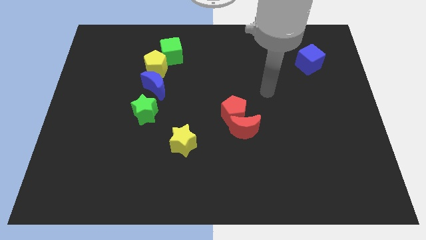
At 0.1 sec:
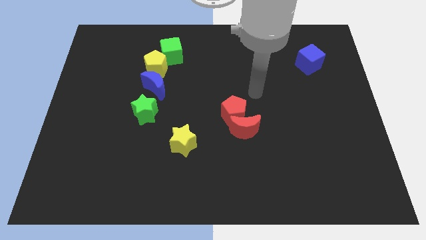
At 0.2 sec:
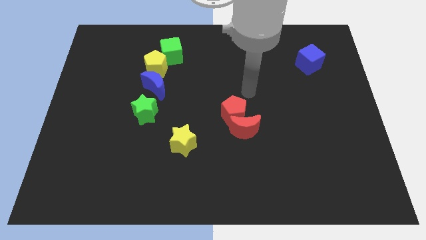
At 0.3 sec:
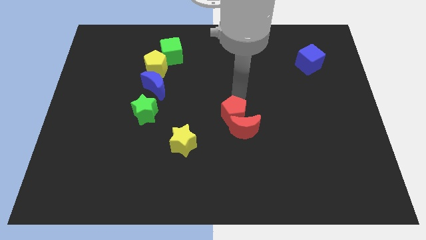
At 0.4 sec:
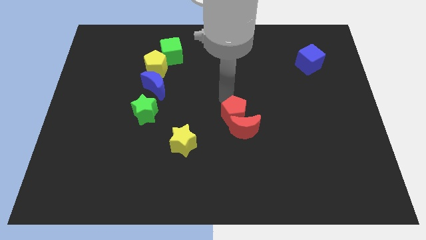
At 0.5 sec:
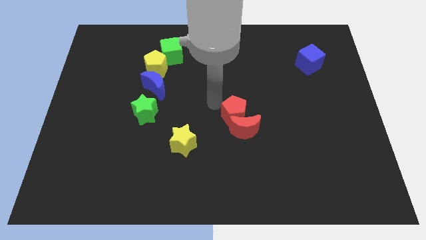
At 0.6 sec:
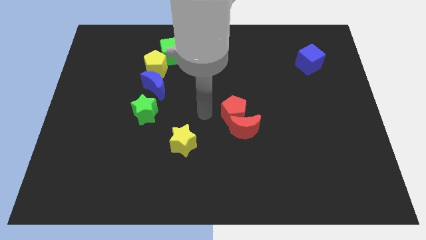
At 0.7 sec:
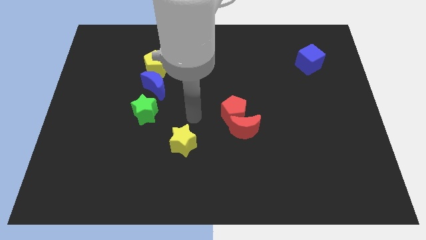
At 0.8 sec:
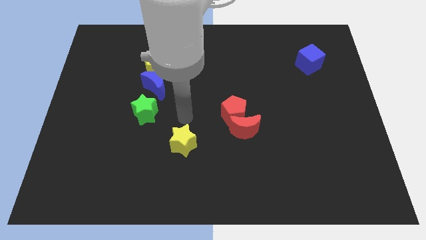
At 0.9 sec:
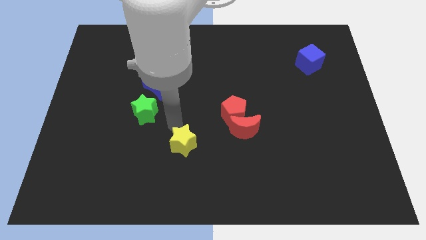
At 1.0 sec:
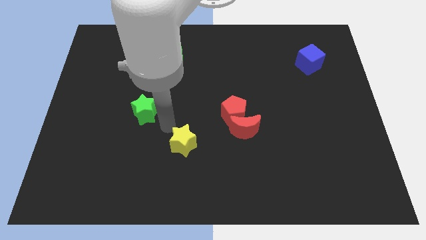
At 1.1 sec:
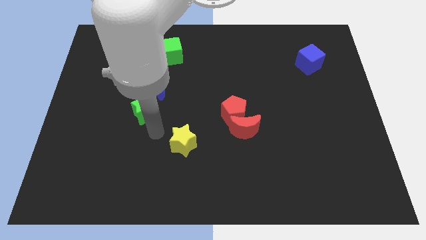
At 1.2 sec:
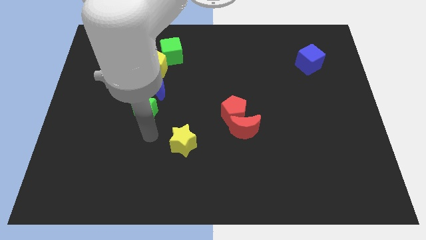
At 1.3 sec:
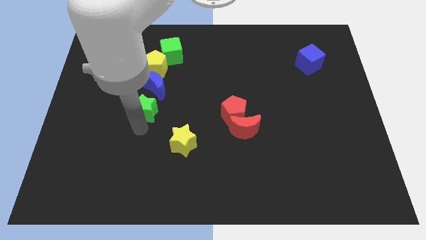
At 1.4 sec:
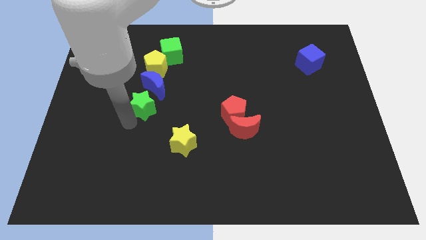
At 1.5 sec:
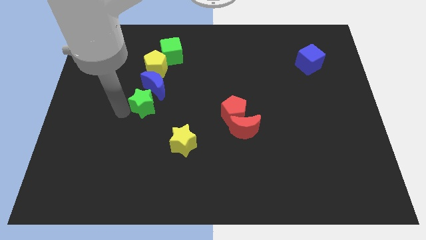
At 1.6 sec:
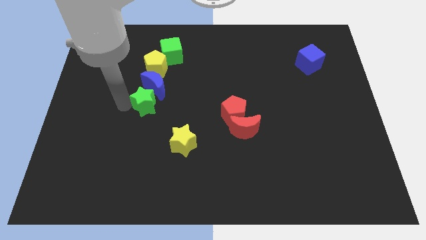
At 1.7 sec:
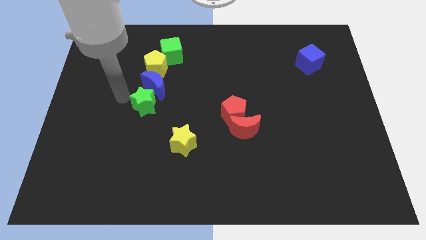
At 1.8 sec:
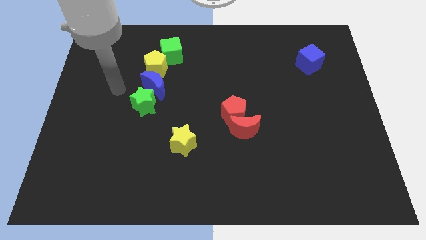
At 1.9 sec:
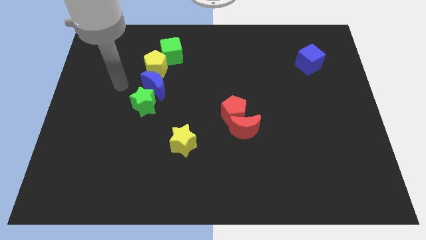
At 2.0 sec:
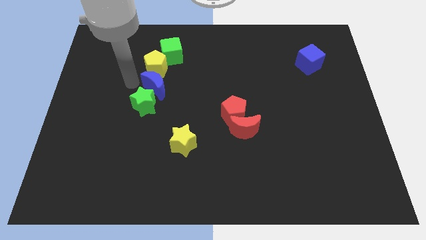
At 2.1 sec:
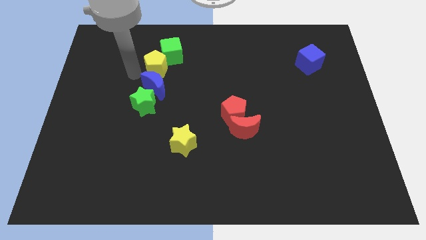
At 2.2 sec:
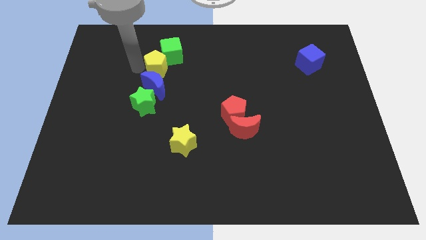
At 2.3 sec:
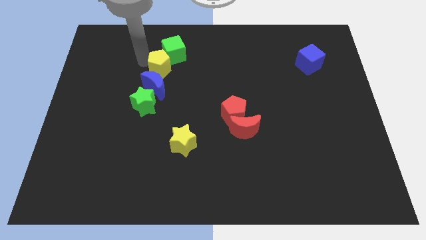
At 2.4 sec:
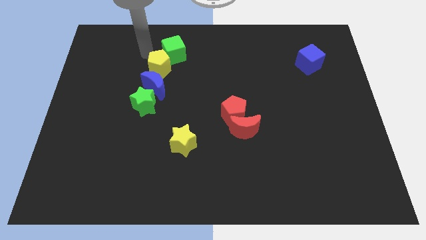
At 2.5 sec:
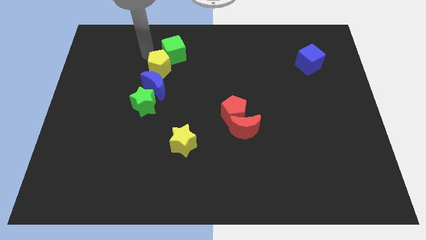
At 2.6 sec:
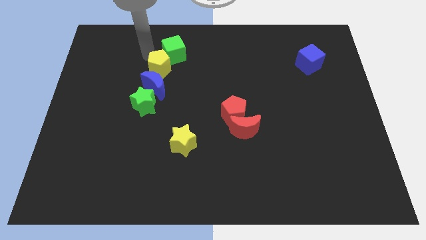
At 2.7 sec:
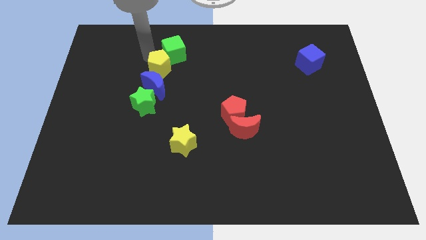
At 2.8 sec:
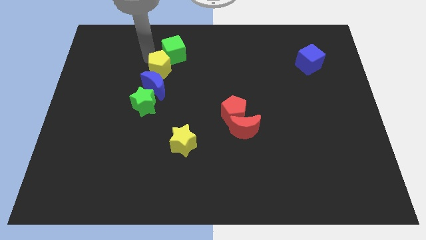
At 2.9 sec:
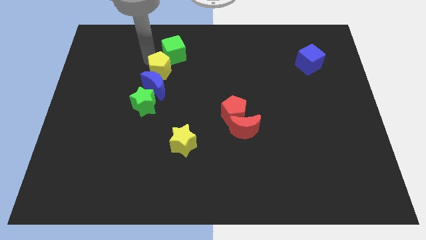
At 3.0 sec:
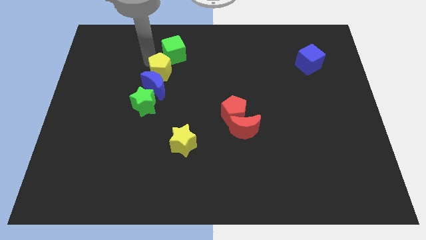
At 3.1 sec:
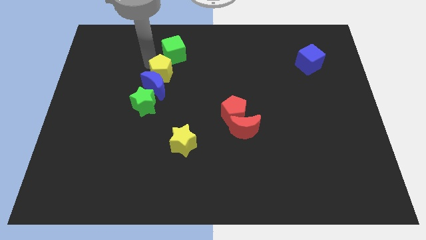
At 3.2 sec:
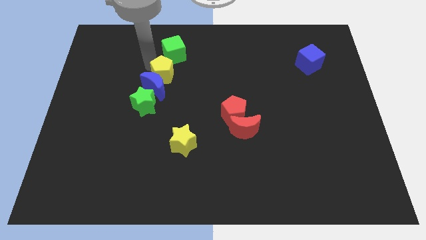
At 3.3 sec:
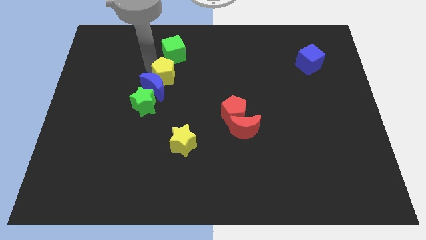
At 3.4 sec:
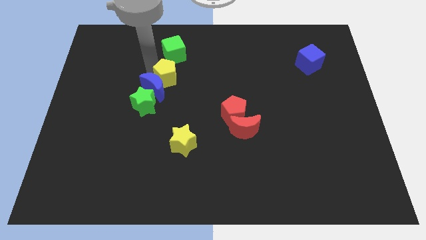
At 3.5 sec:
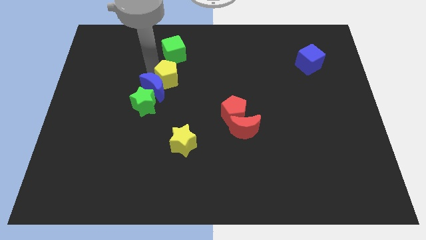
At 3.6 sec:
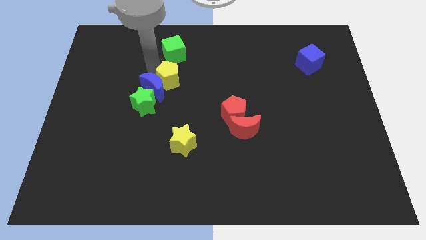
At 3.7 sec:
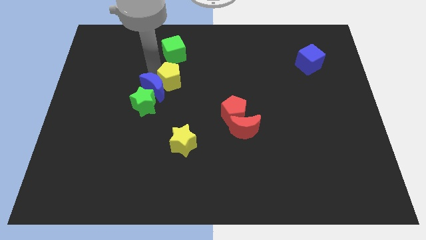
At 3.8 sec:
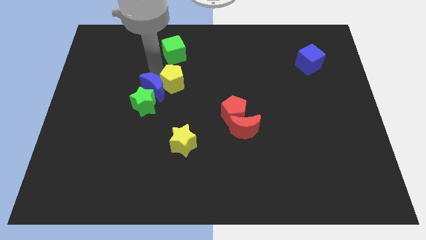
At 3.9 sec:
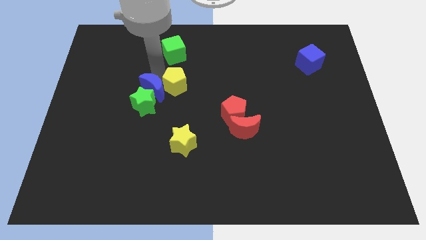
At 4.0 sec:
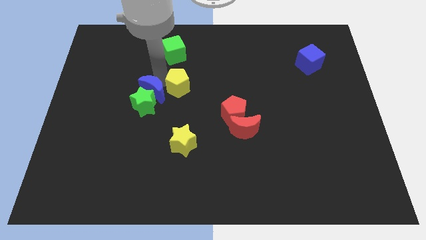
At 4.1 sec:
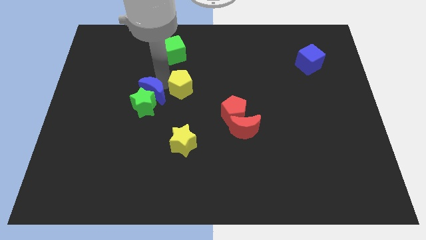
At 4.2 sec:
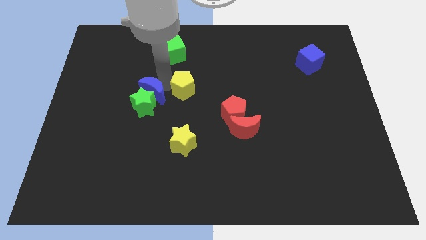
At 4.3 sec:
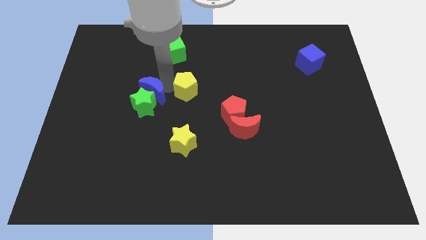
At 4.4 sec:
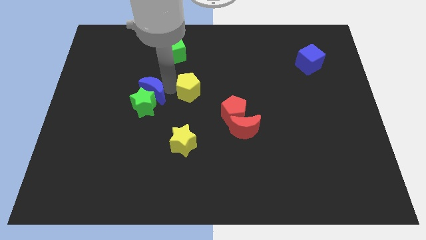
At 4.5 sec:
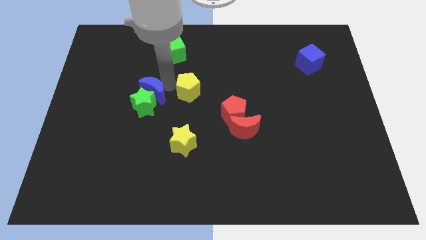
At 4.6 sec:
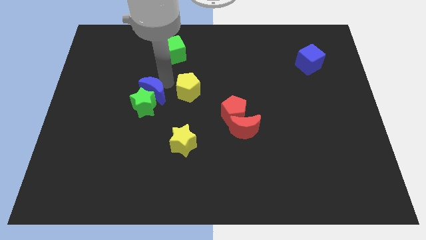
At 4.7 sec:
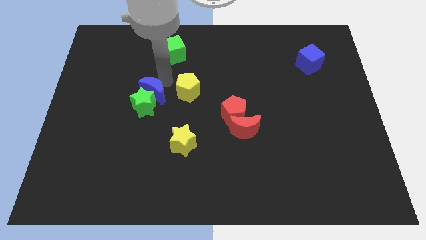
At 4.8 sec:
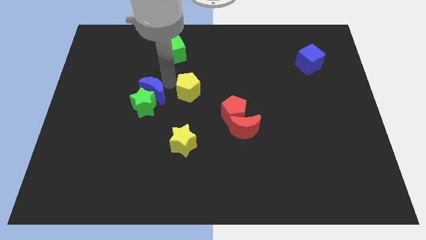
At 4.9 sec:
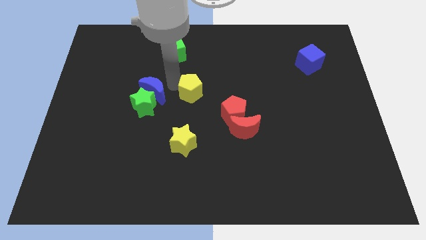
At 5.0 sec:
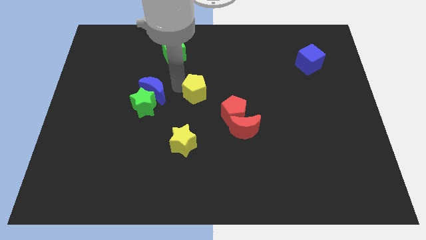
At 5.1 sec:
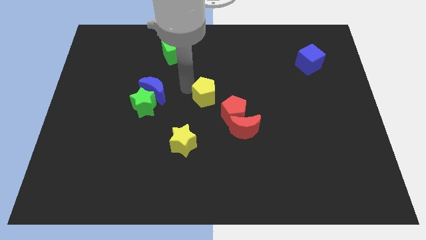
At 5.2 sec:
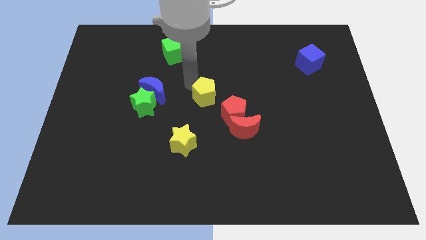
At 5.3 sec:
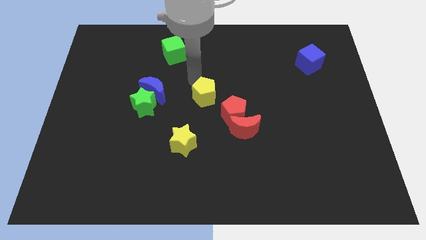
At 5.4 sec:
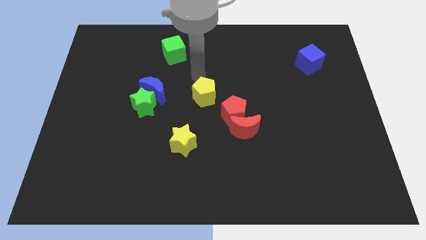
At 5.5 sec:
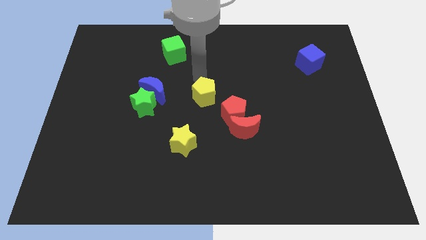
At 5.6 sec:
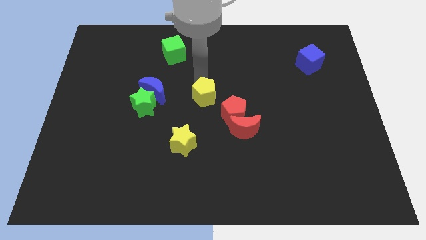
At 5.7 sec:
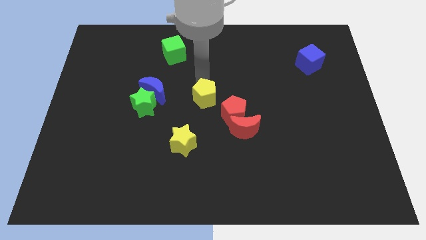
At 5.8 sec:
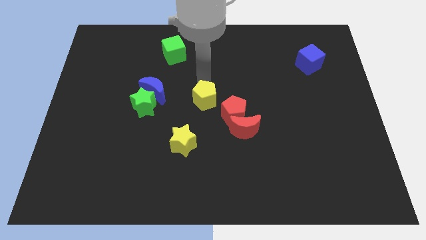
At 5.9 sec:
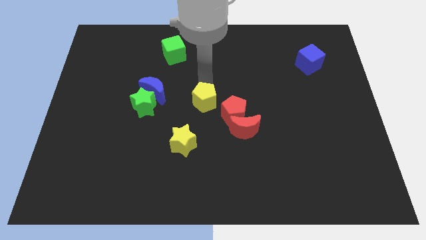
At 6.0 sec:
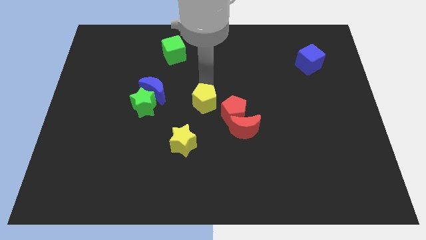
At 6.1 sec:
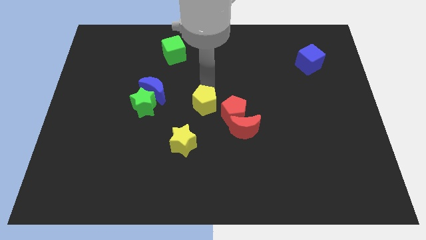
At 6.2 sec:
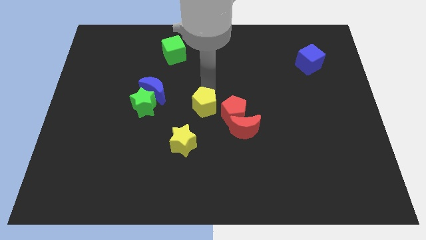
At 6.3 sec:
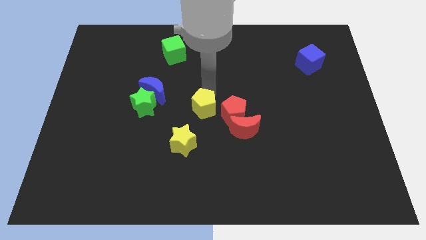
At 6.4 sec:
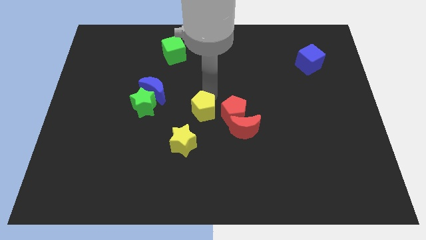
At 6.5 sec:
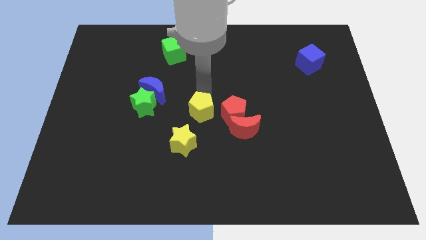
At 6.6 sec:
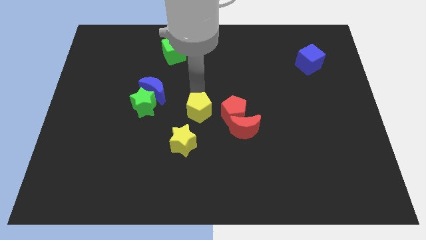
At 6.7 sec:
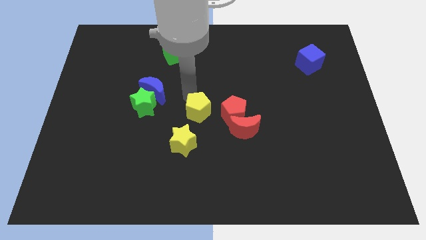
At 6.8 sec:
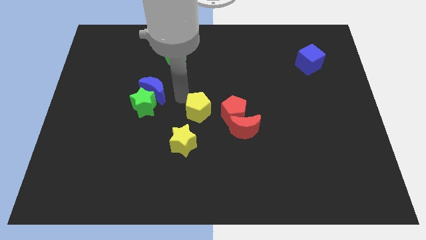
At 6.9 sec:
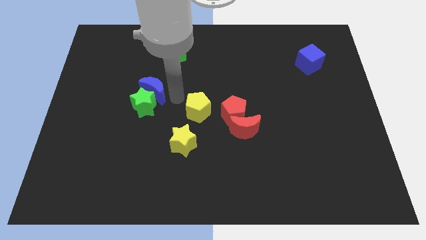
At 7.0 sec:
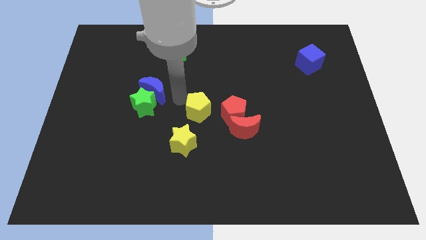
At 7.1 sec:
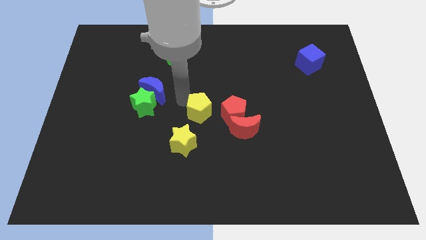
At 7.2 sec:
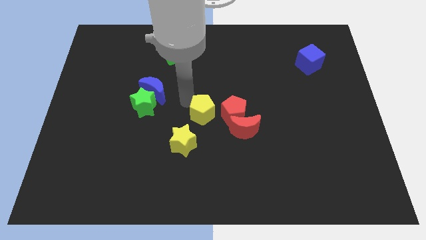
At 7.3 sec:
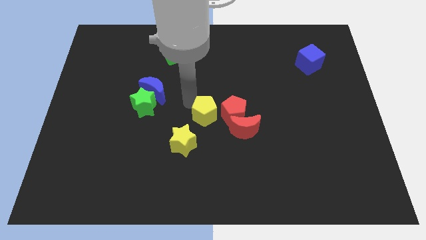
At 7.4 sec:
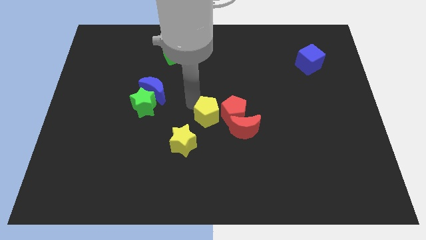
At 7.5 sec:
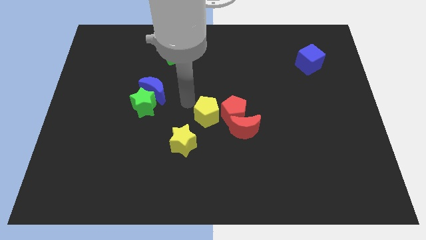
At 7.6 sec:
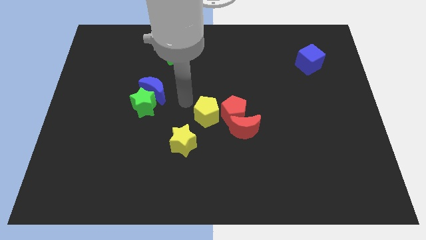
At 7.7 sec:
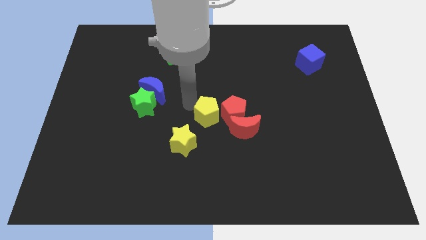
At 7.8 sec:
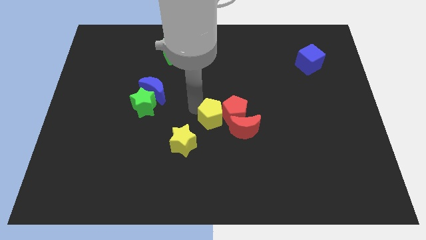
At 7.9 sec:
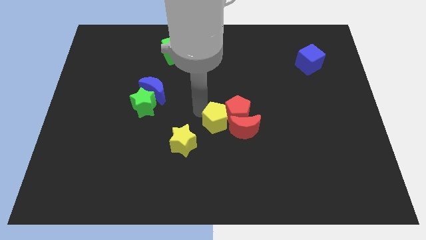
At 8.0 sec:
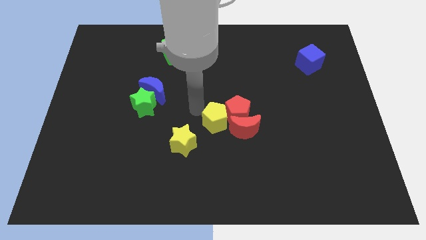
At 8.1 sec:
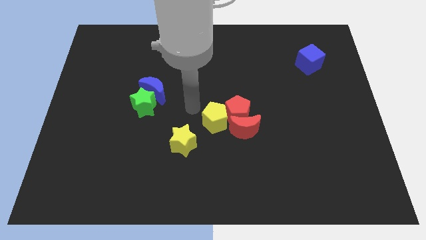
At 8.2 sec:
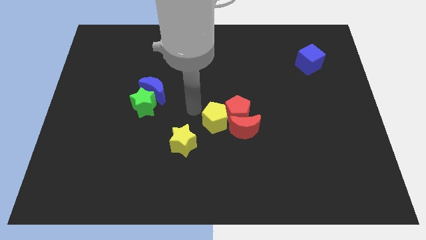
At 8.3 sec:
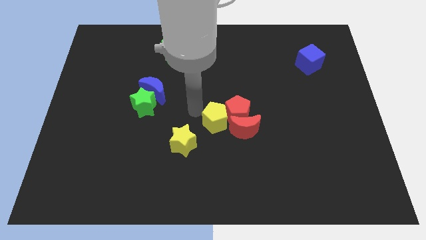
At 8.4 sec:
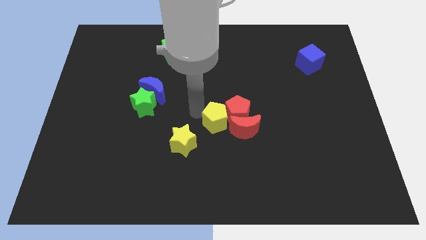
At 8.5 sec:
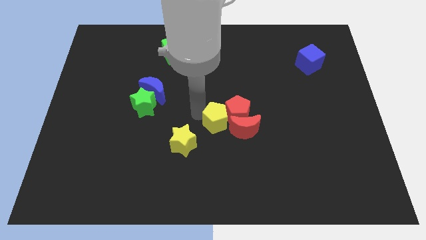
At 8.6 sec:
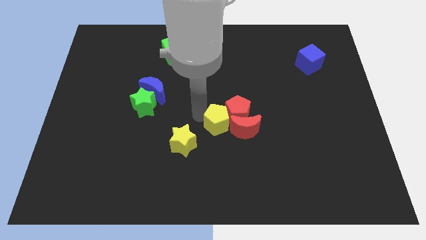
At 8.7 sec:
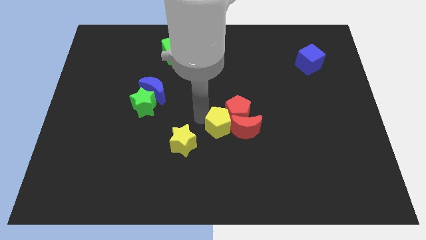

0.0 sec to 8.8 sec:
put the yellow pentagon to the red moon
